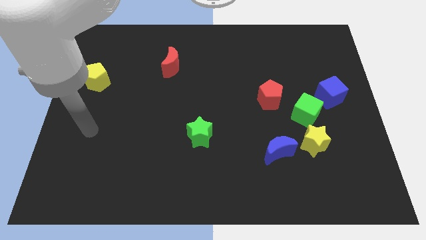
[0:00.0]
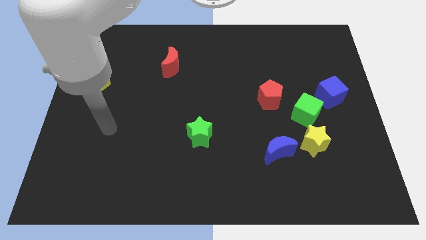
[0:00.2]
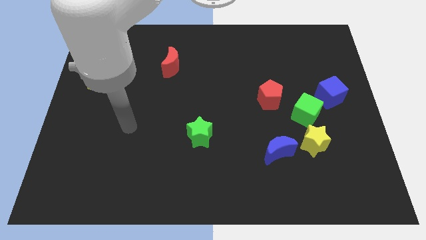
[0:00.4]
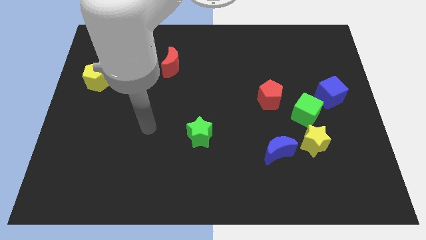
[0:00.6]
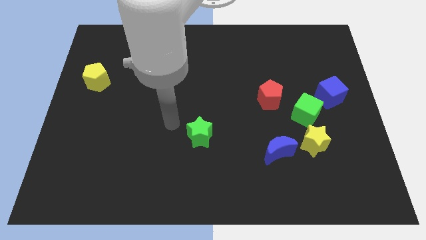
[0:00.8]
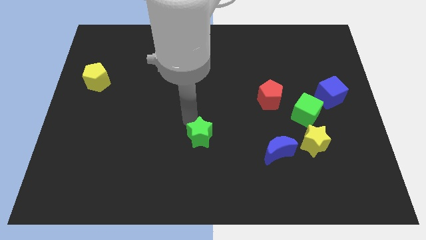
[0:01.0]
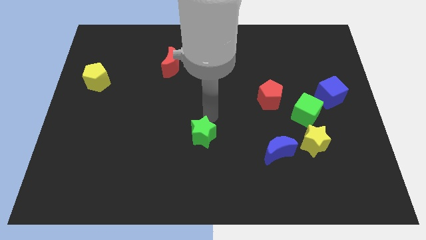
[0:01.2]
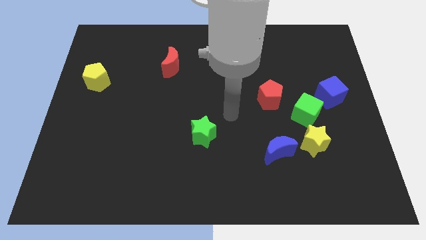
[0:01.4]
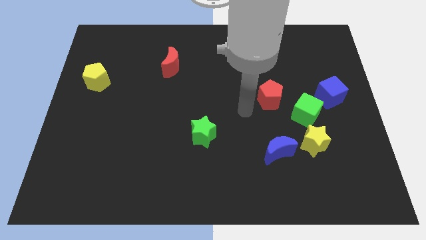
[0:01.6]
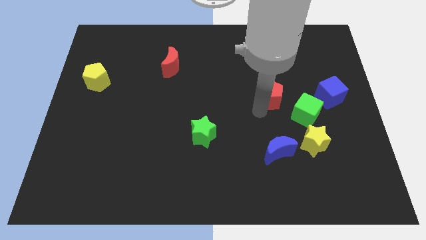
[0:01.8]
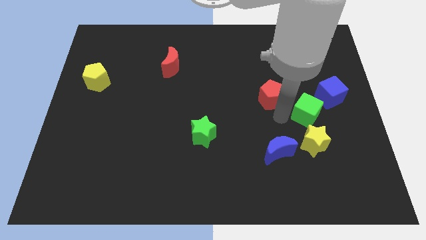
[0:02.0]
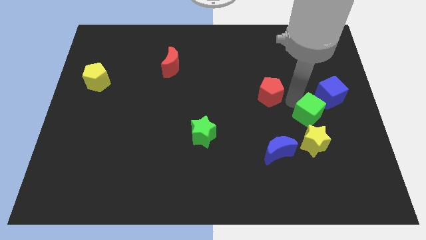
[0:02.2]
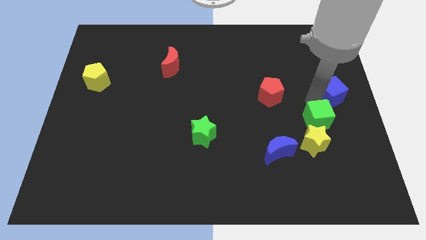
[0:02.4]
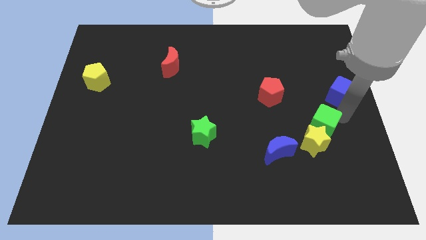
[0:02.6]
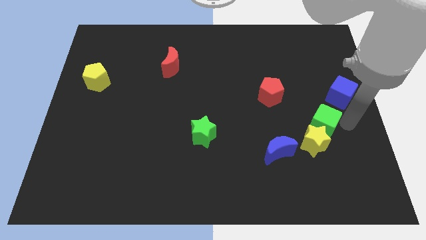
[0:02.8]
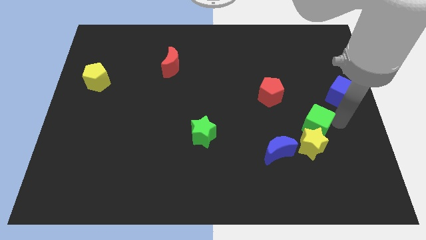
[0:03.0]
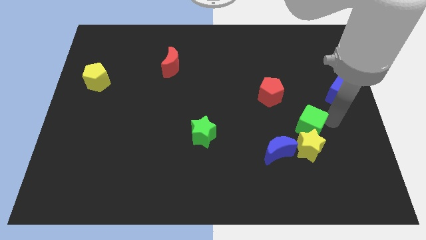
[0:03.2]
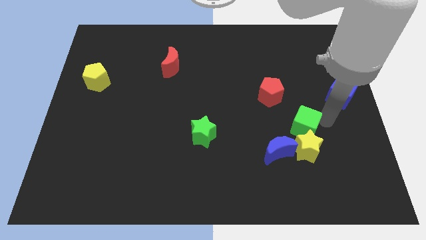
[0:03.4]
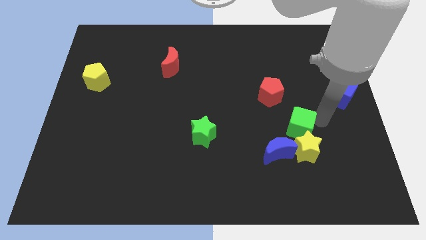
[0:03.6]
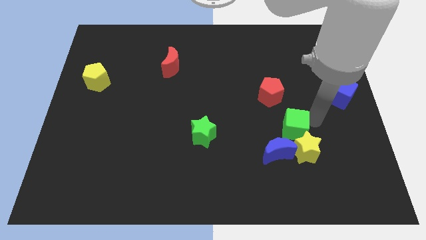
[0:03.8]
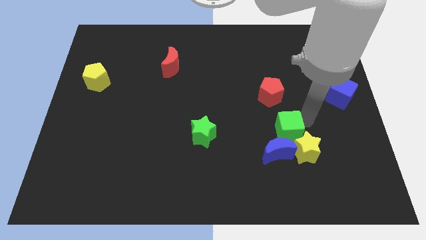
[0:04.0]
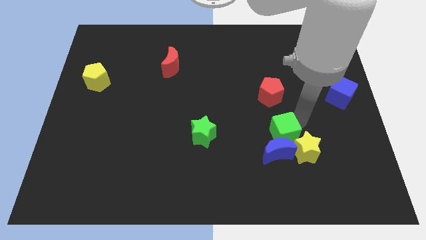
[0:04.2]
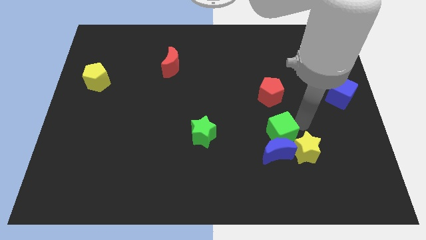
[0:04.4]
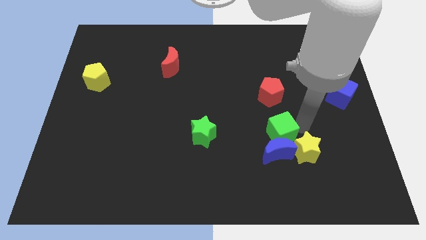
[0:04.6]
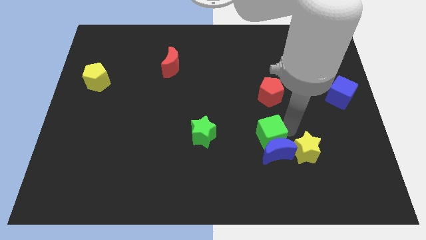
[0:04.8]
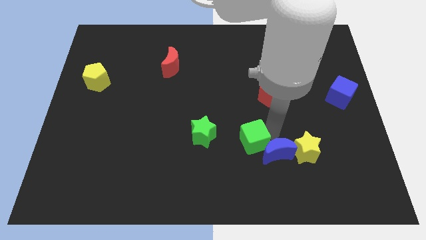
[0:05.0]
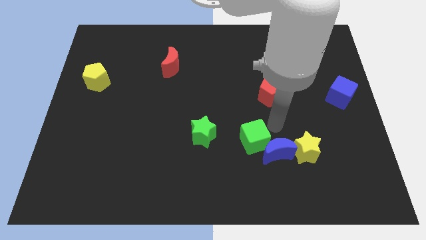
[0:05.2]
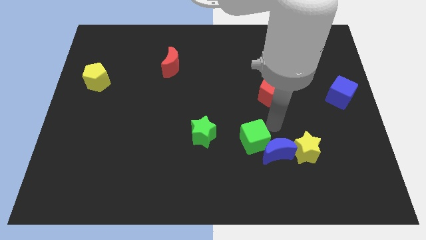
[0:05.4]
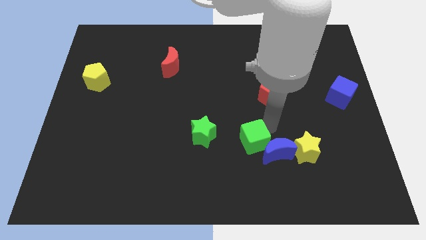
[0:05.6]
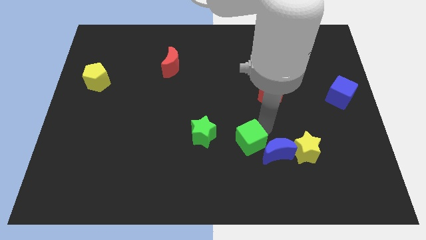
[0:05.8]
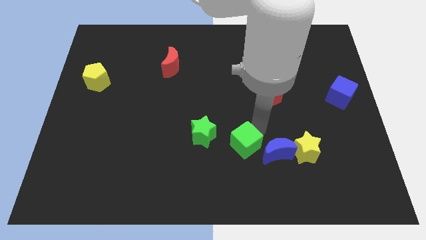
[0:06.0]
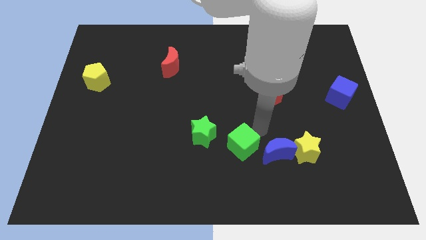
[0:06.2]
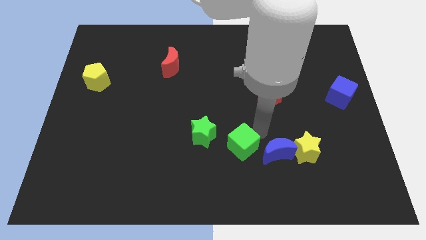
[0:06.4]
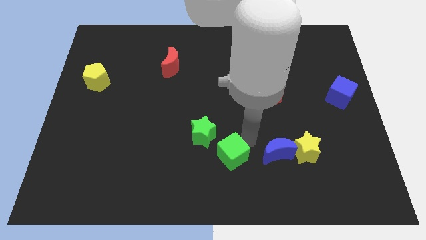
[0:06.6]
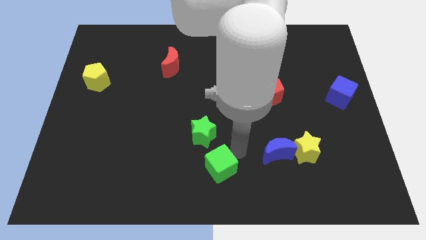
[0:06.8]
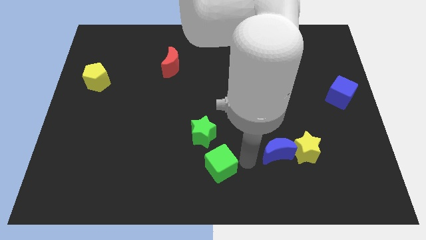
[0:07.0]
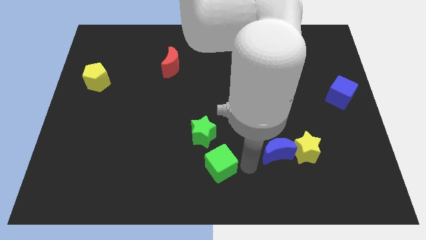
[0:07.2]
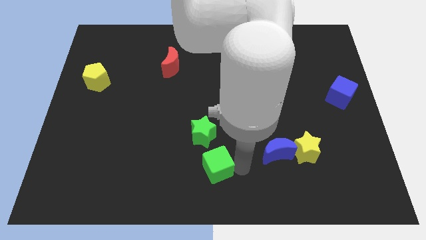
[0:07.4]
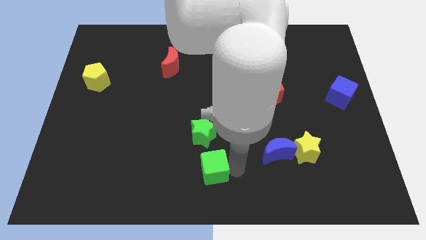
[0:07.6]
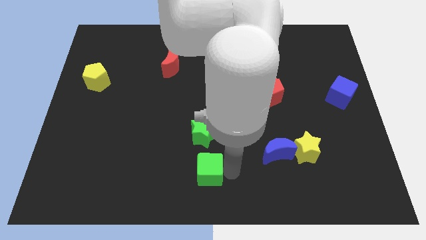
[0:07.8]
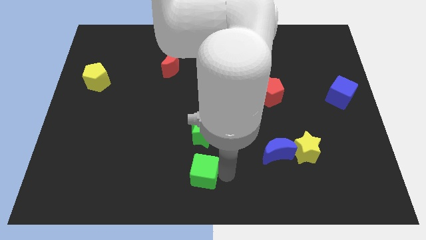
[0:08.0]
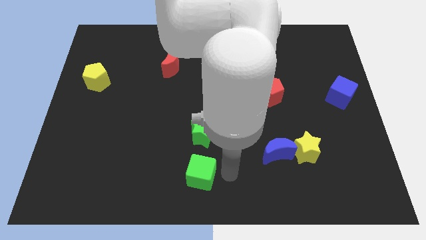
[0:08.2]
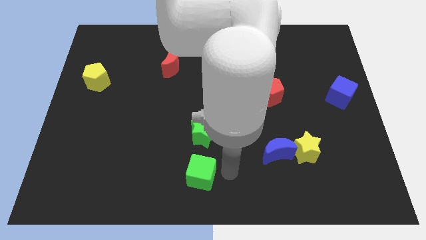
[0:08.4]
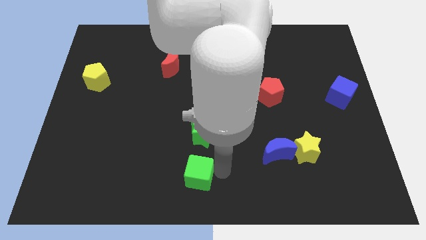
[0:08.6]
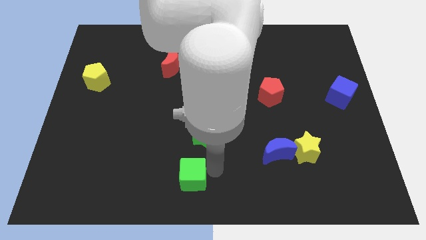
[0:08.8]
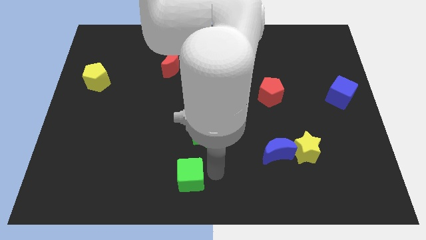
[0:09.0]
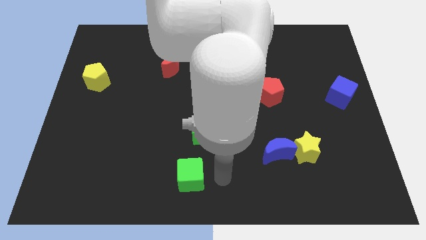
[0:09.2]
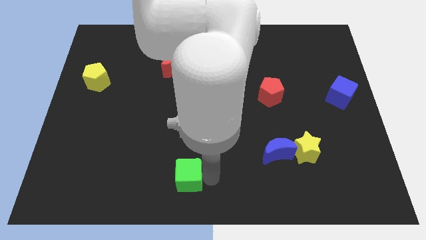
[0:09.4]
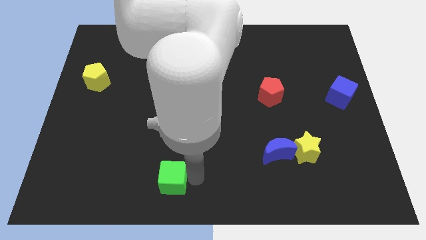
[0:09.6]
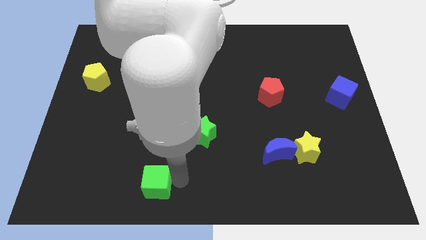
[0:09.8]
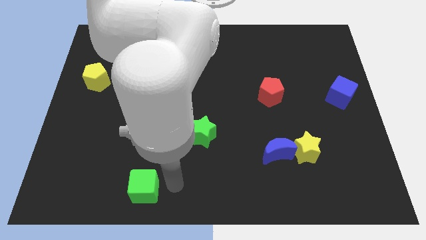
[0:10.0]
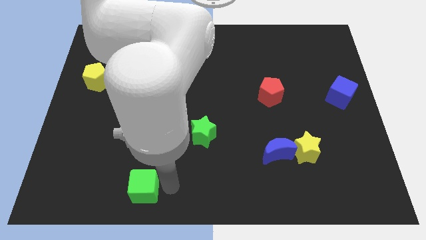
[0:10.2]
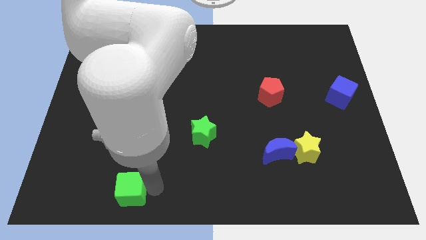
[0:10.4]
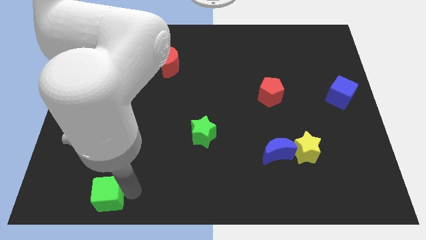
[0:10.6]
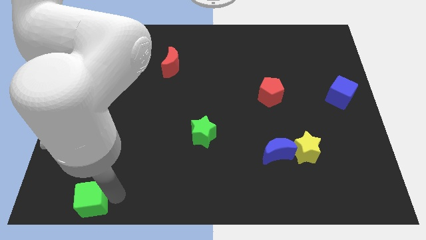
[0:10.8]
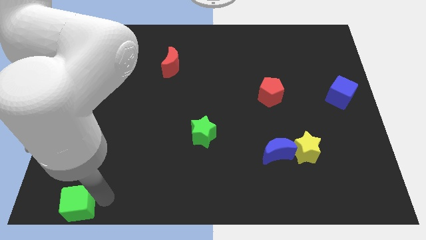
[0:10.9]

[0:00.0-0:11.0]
move the green cube to the bottom left corner

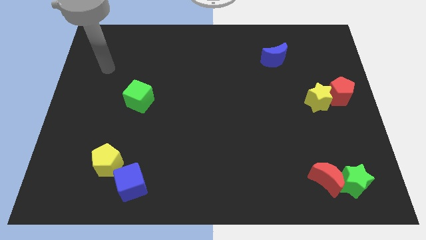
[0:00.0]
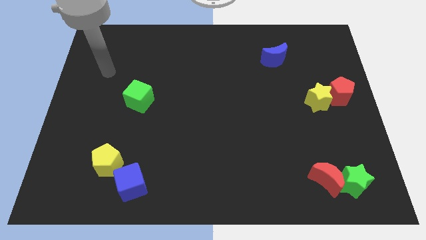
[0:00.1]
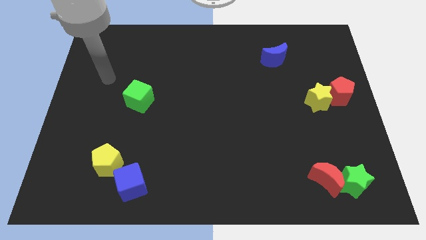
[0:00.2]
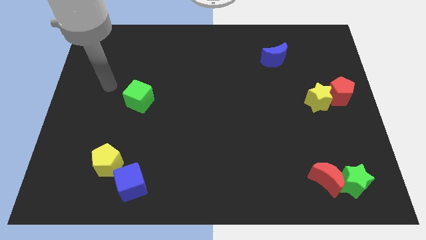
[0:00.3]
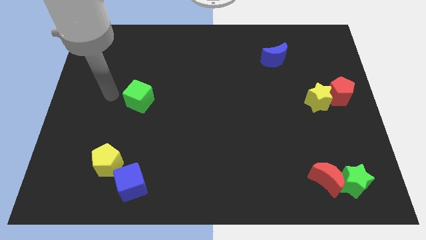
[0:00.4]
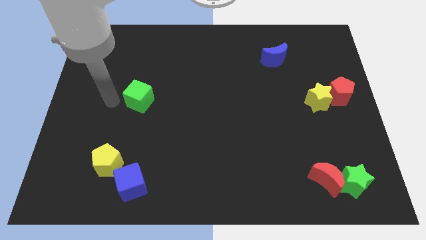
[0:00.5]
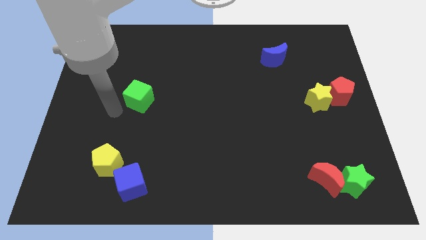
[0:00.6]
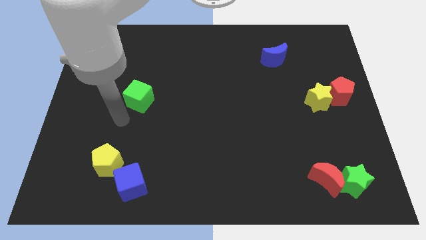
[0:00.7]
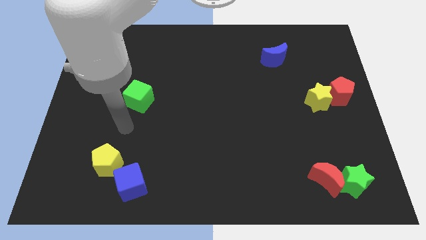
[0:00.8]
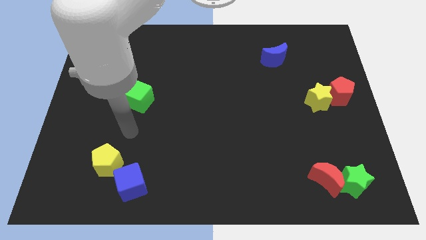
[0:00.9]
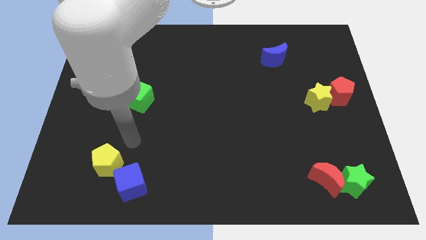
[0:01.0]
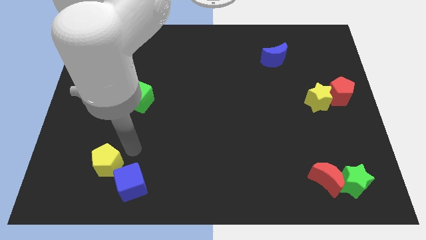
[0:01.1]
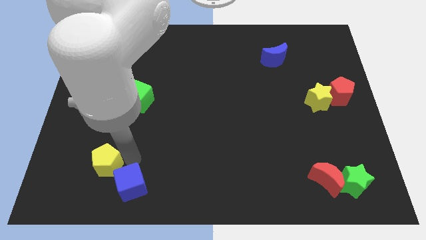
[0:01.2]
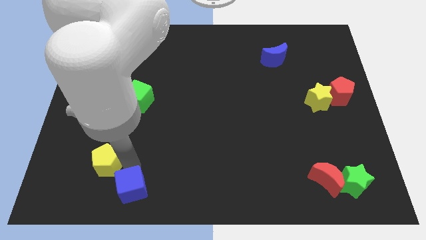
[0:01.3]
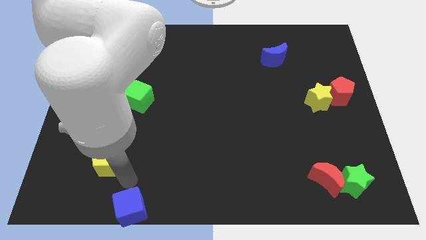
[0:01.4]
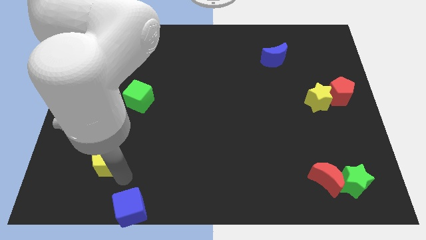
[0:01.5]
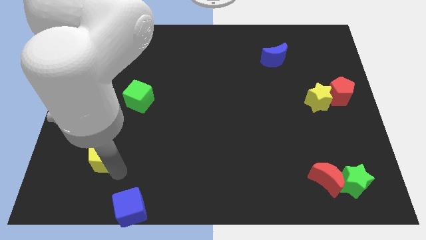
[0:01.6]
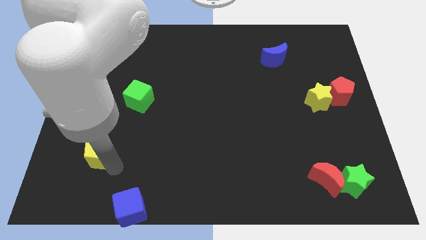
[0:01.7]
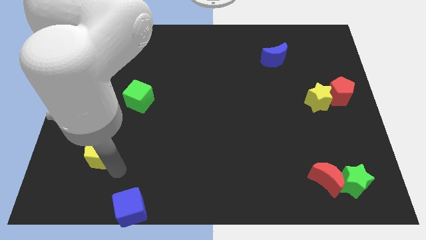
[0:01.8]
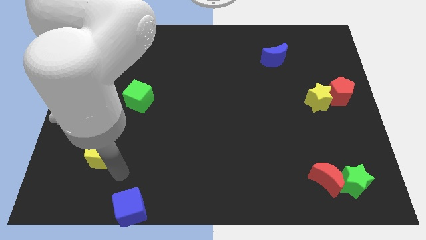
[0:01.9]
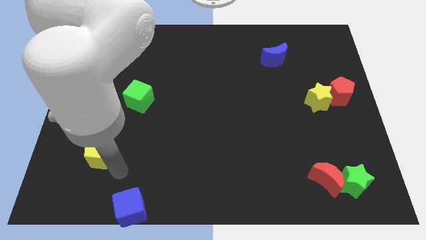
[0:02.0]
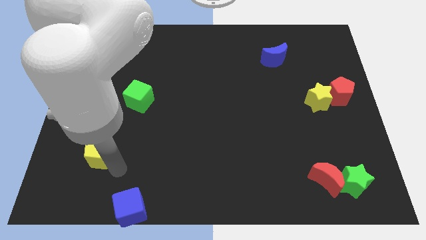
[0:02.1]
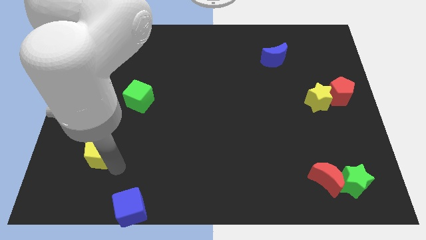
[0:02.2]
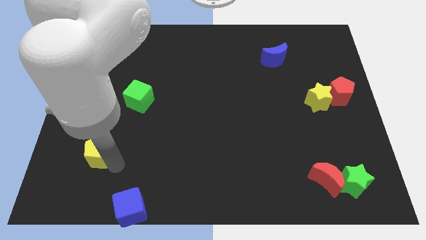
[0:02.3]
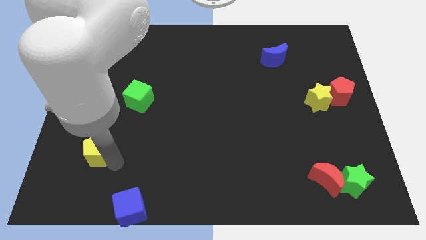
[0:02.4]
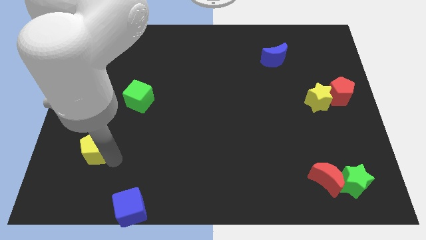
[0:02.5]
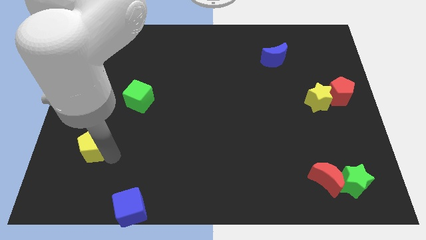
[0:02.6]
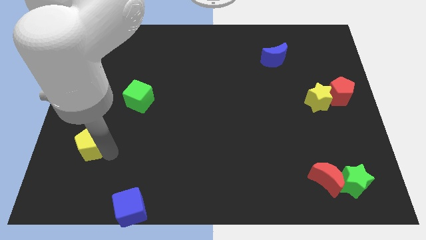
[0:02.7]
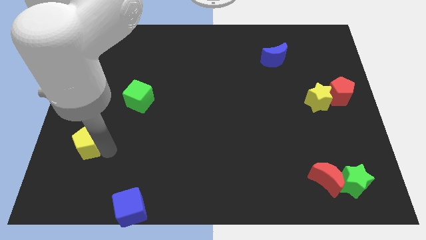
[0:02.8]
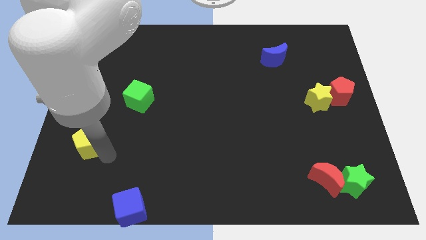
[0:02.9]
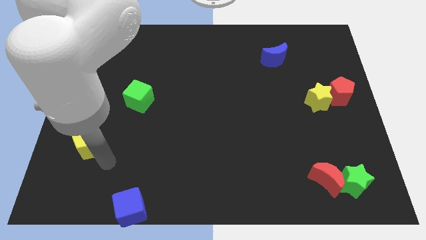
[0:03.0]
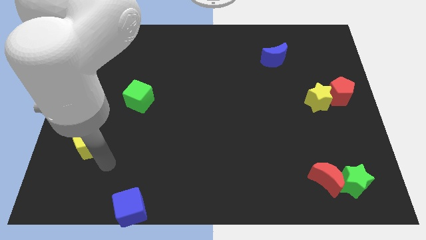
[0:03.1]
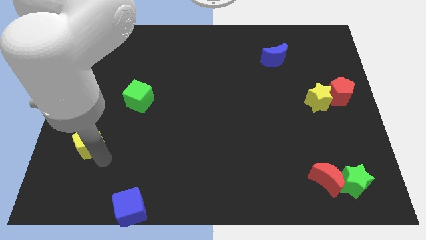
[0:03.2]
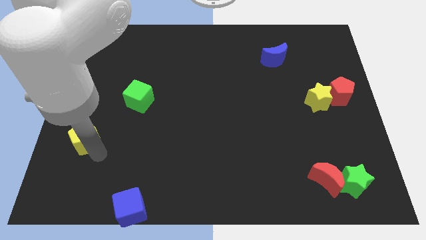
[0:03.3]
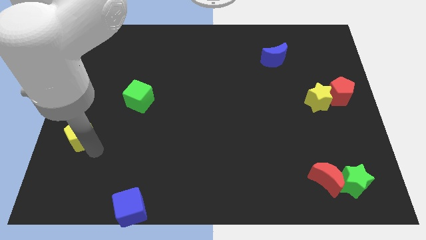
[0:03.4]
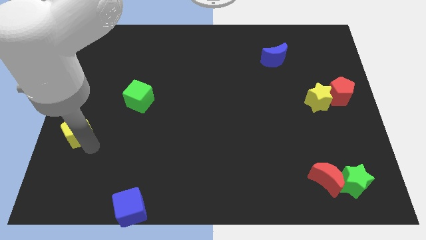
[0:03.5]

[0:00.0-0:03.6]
push the yellow pentagon to the left side
